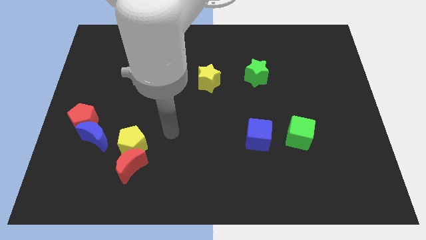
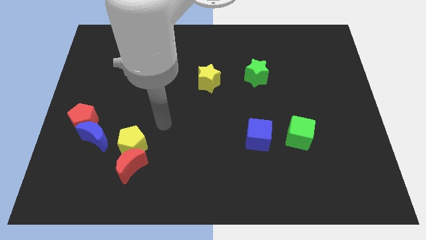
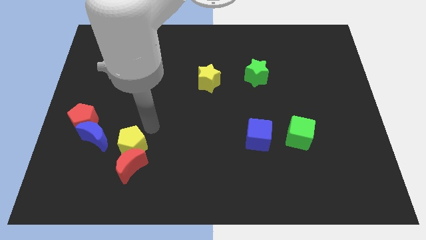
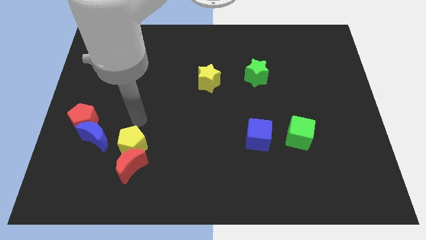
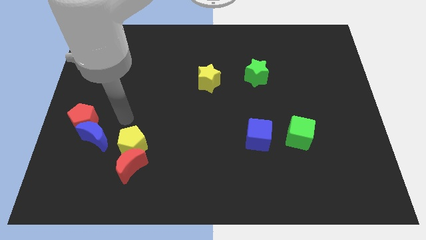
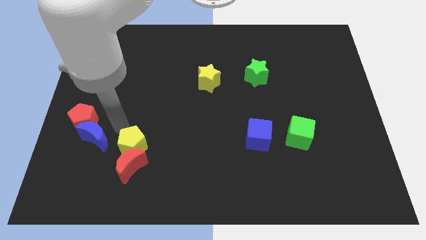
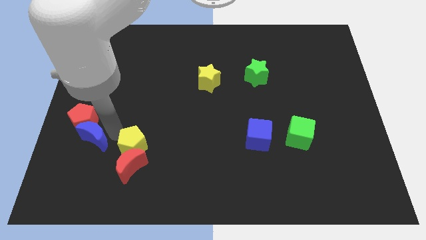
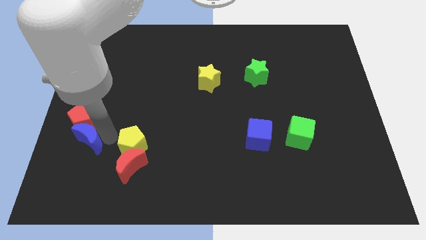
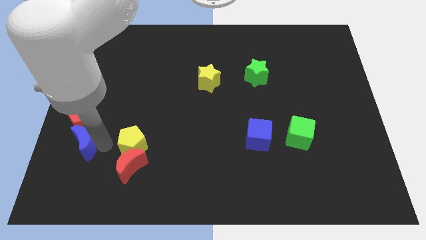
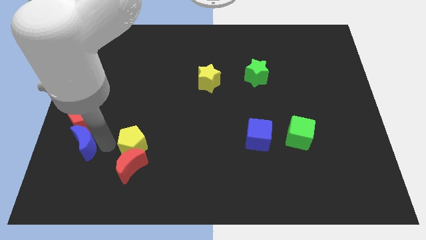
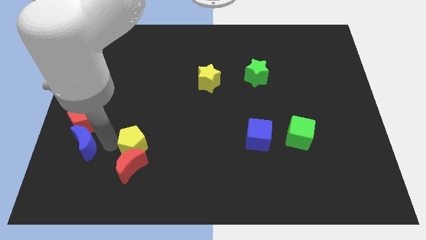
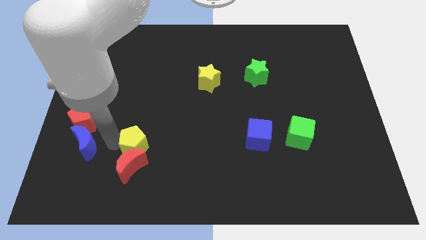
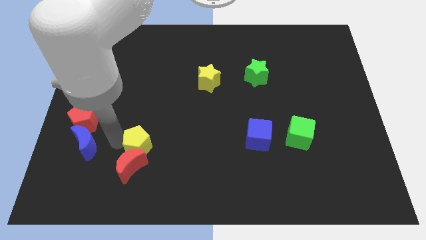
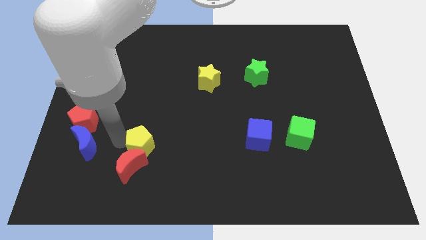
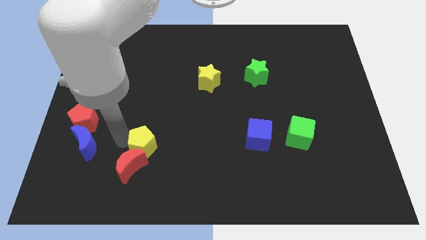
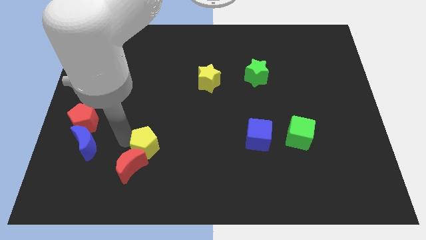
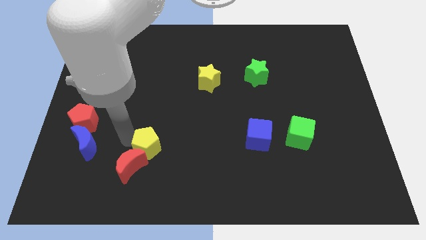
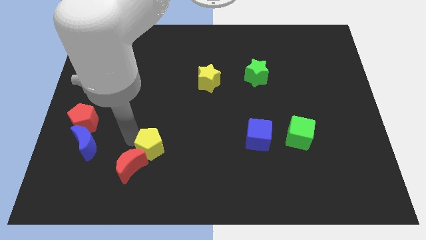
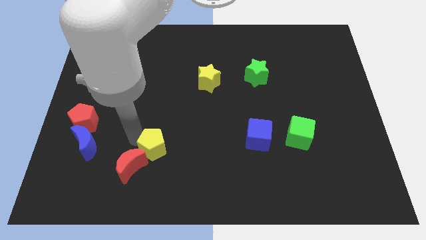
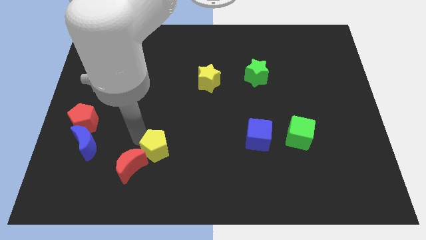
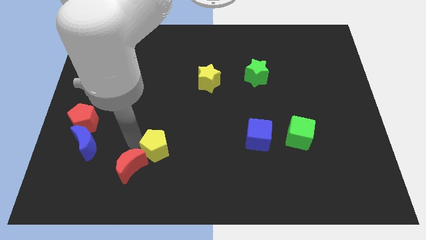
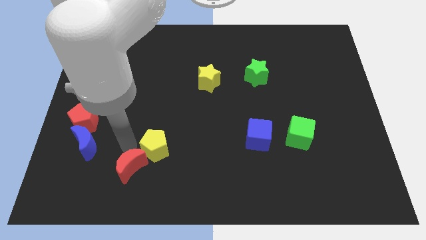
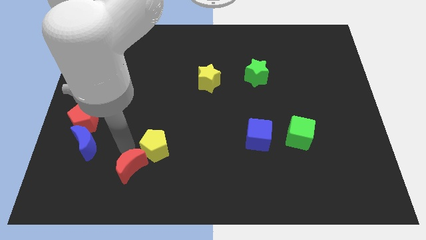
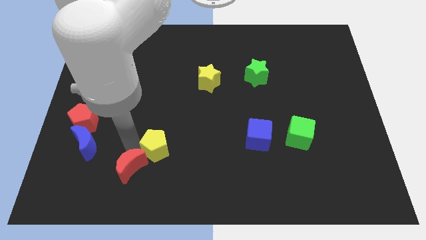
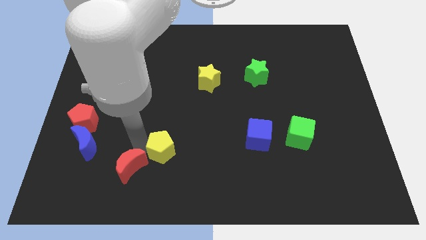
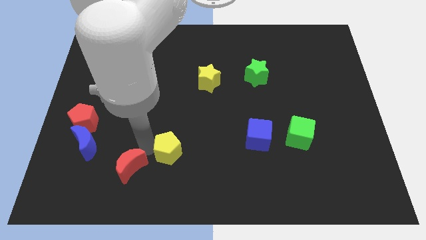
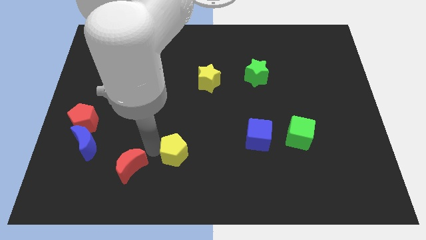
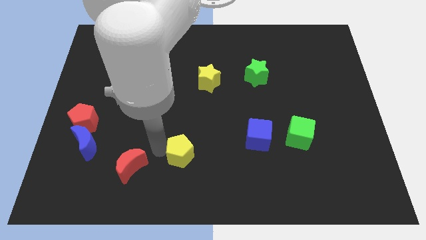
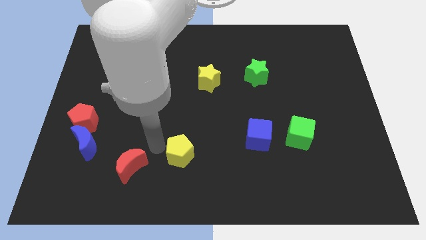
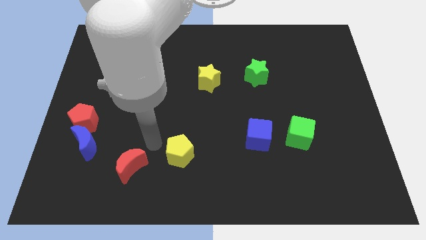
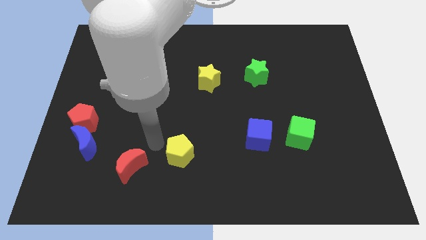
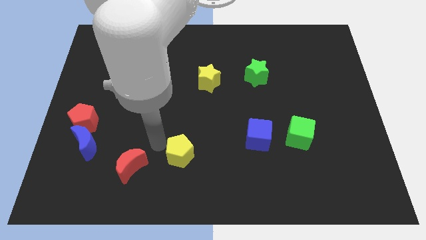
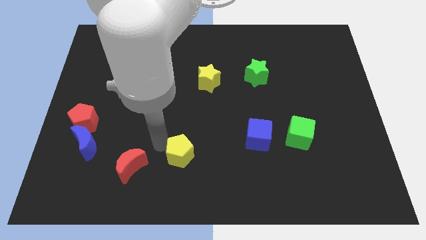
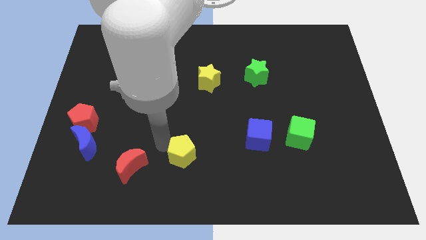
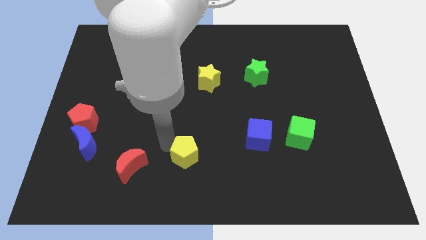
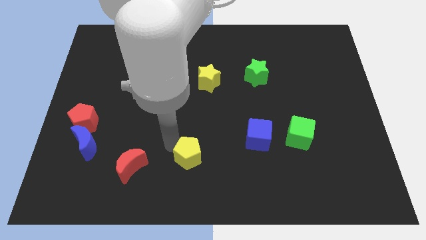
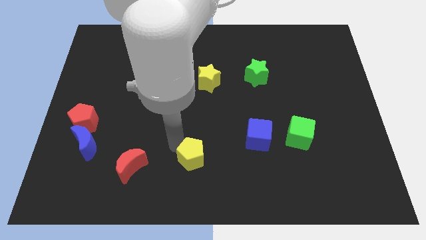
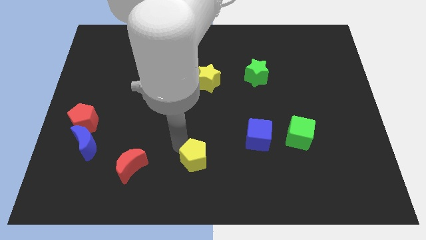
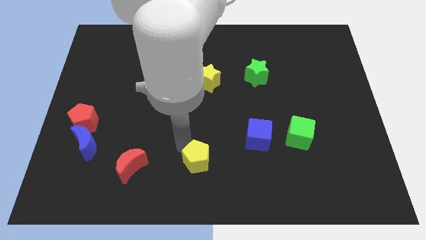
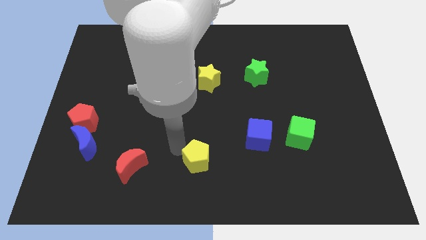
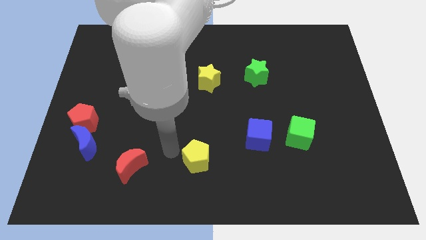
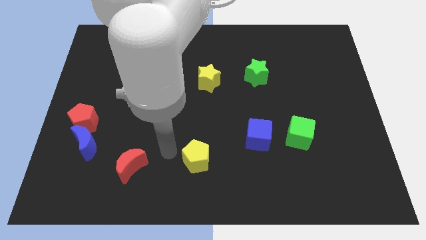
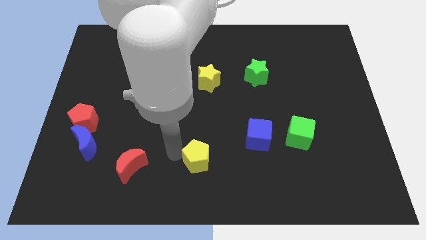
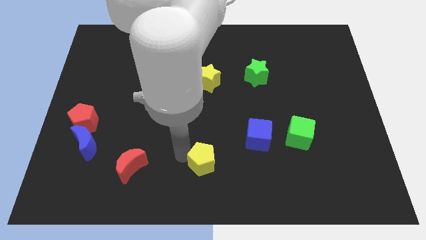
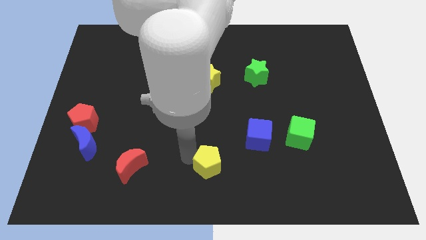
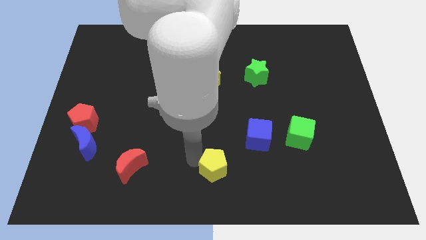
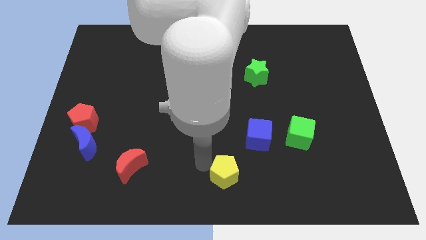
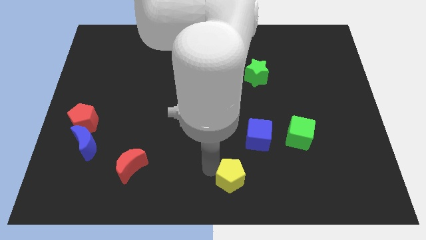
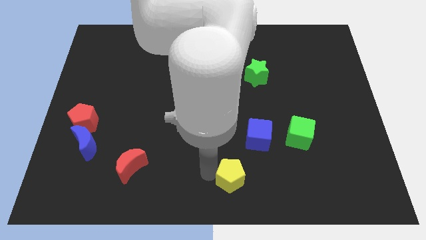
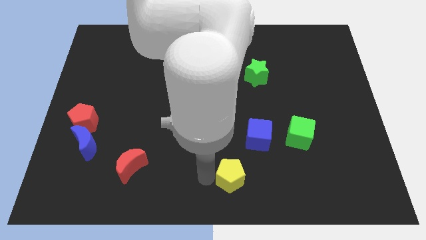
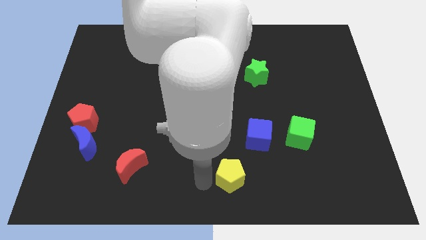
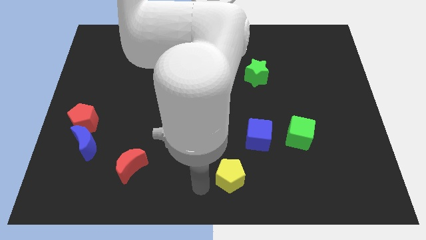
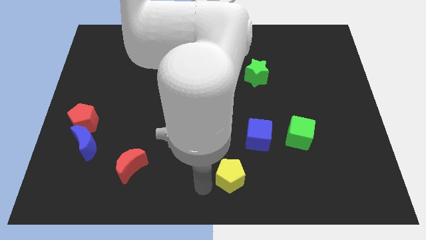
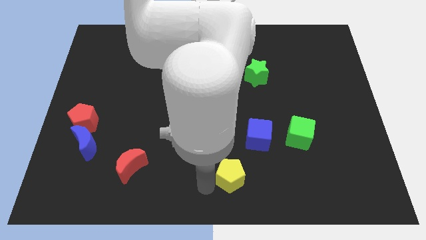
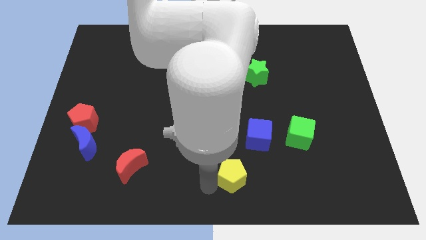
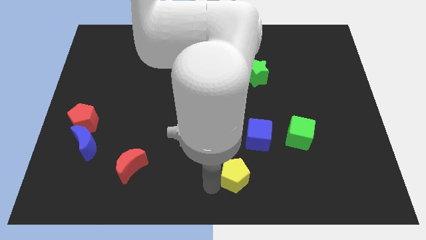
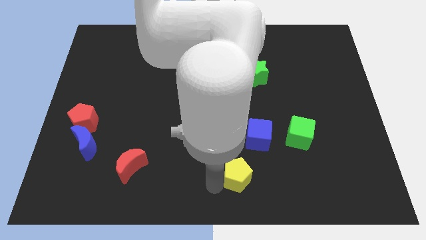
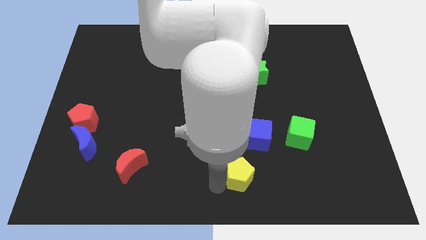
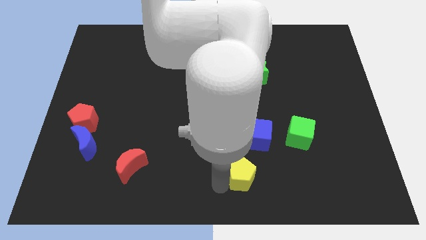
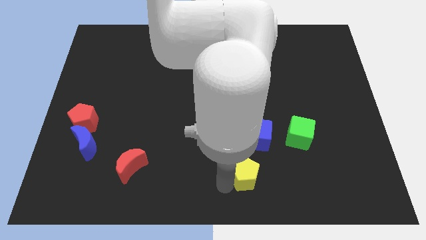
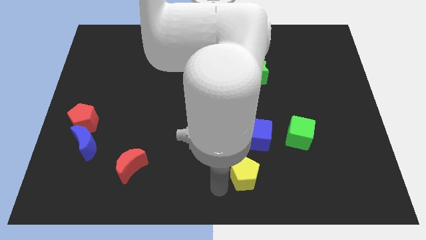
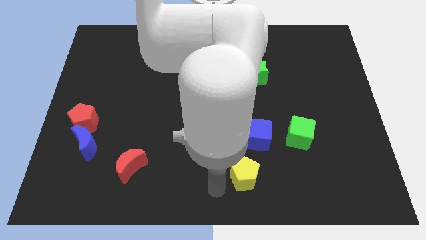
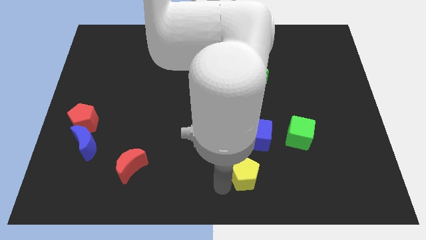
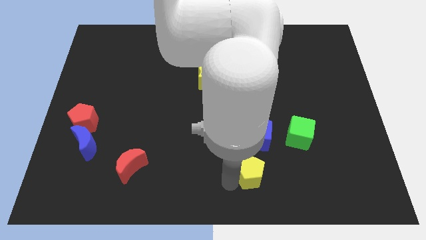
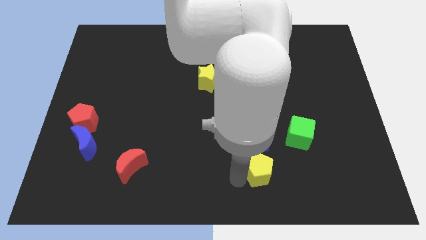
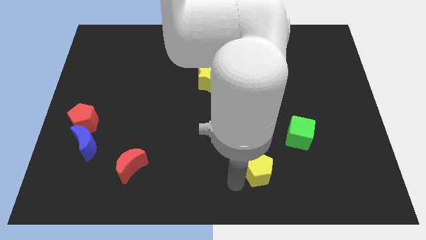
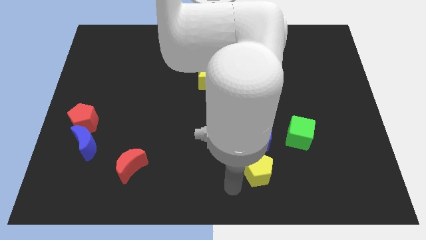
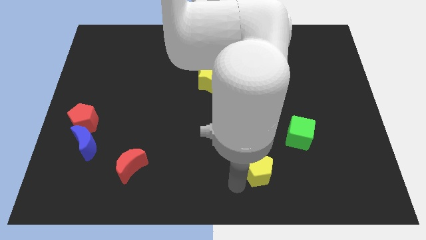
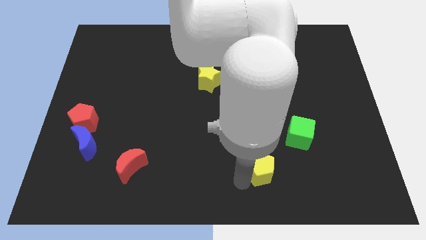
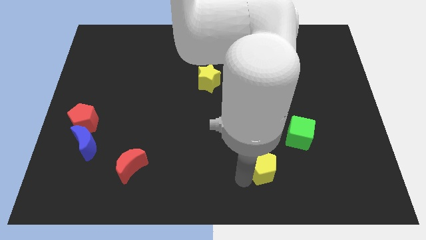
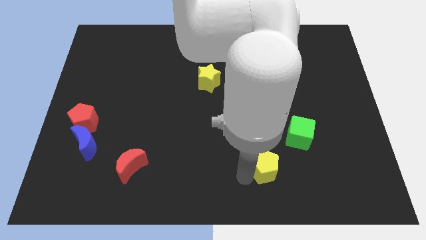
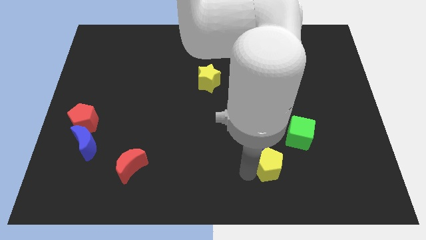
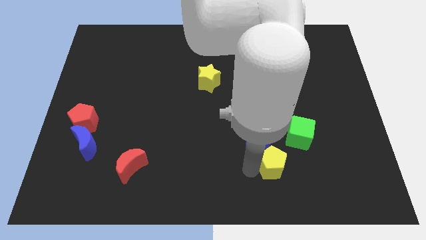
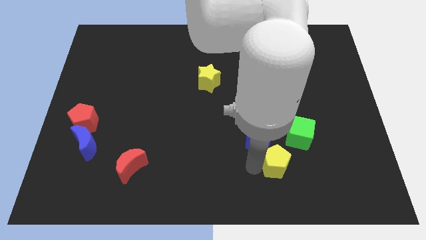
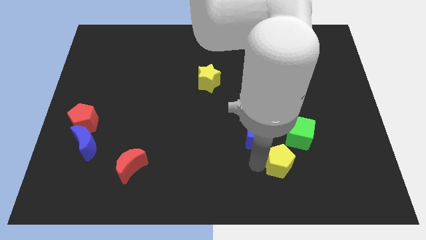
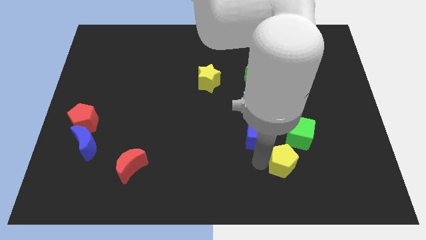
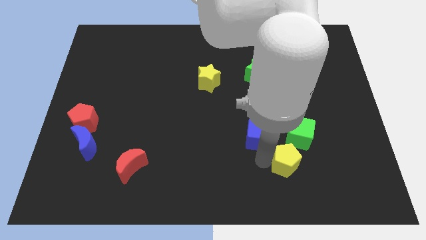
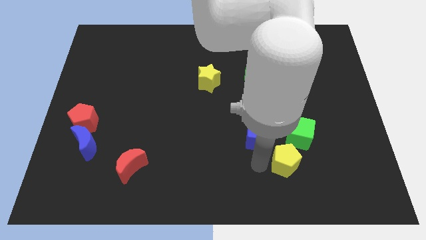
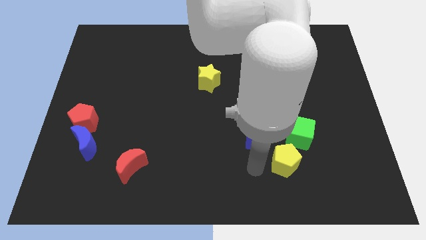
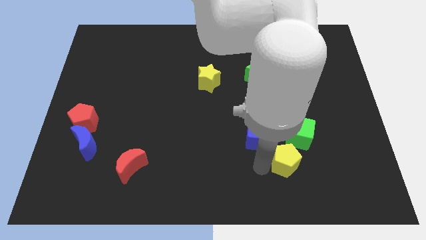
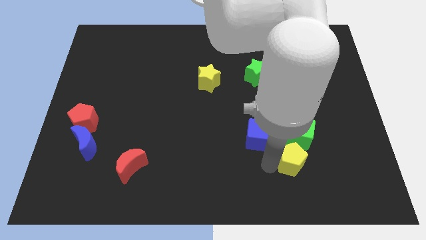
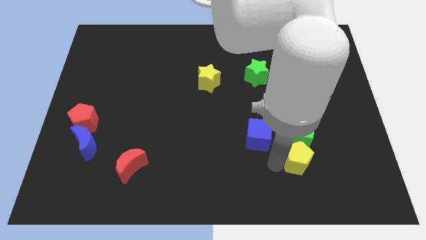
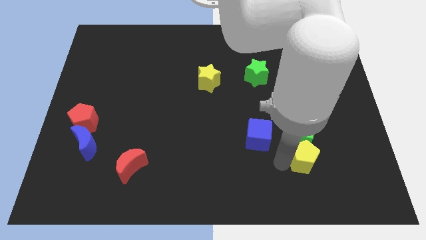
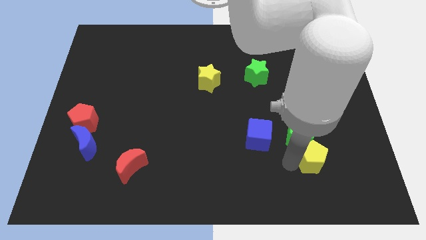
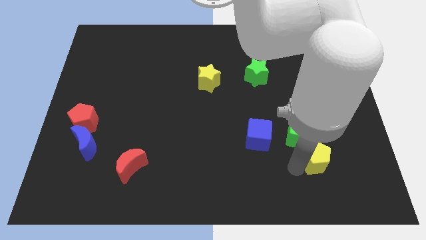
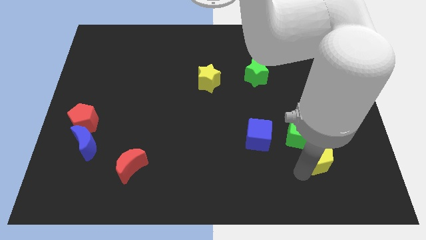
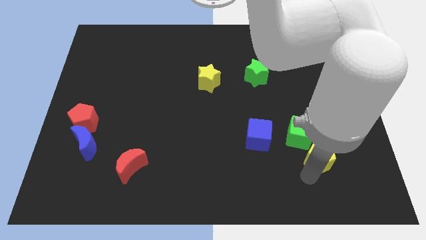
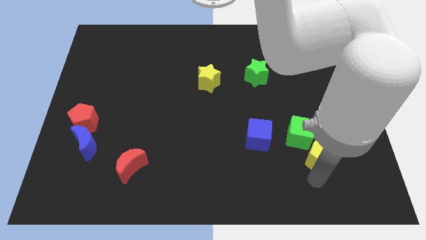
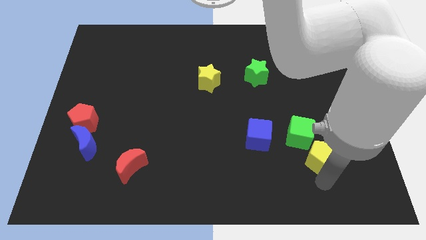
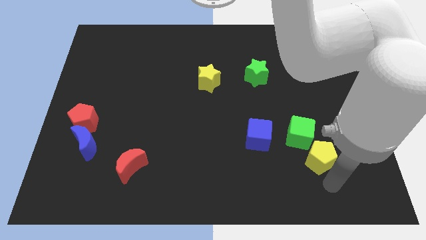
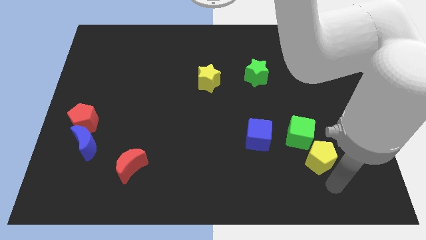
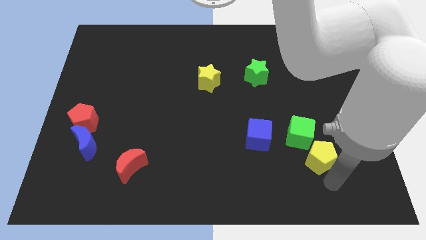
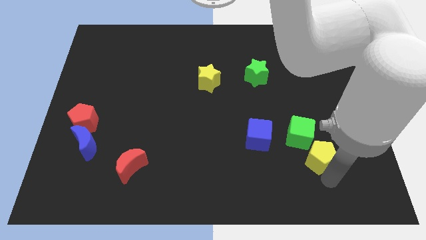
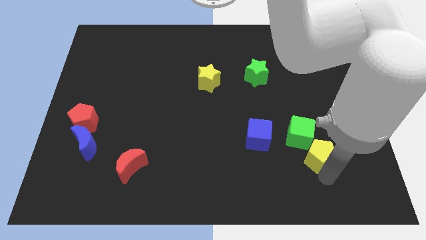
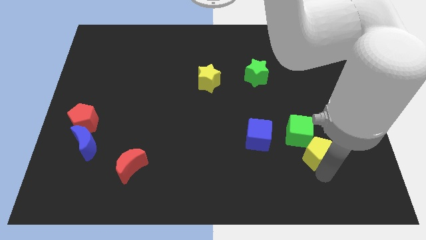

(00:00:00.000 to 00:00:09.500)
put the yellow pentagon to the right of the blue cube
